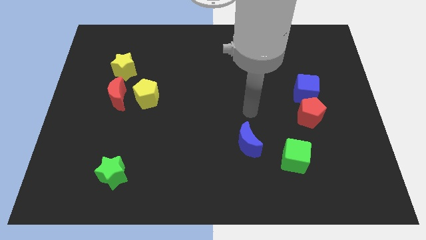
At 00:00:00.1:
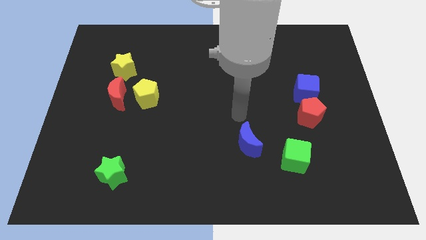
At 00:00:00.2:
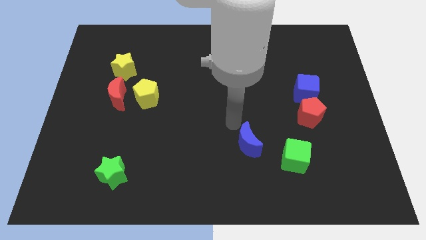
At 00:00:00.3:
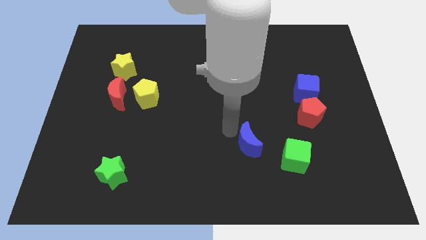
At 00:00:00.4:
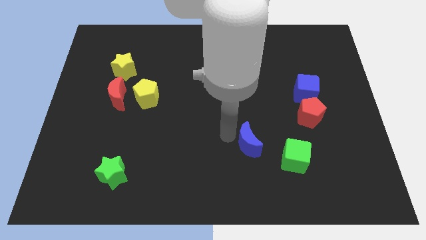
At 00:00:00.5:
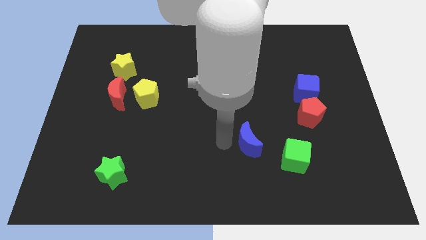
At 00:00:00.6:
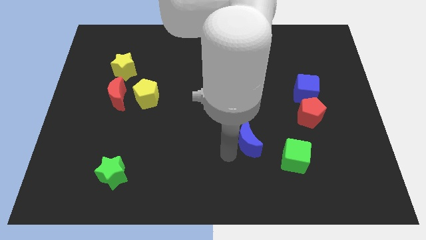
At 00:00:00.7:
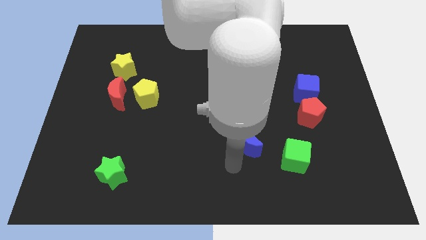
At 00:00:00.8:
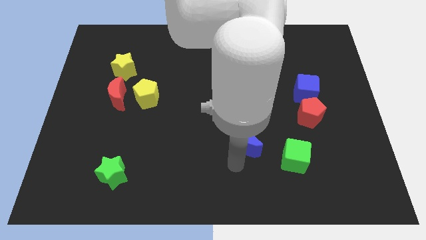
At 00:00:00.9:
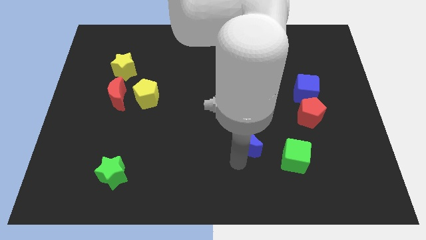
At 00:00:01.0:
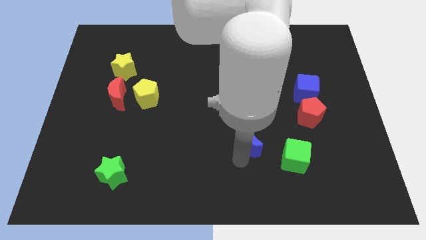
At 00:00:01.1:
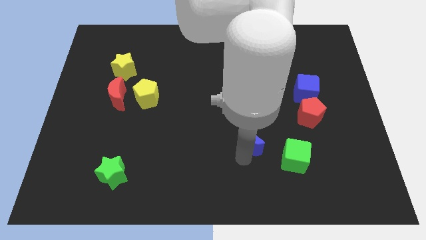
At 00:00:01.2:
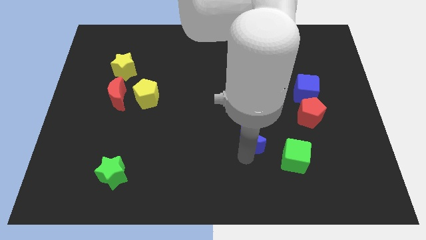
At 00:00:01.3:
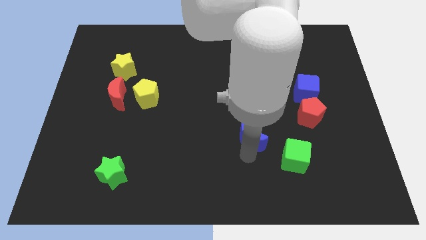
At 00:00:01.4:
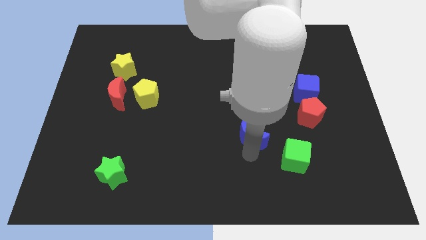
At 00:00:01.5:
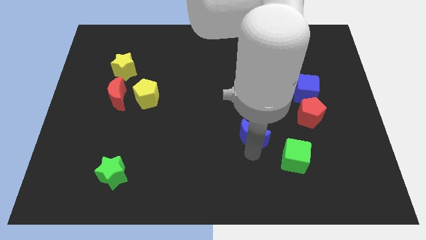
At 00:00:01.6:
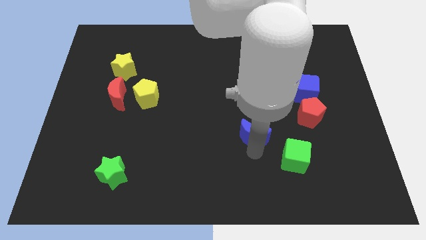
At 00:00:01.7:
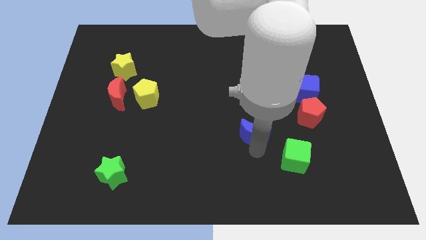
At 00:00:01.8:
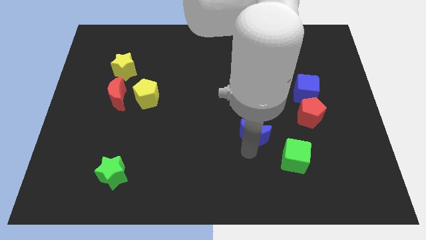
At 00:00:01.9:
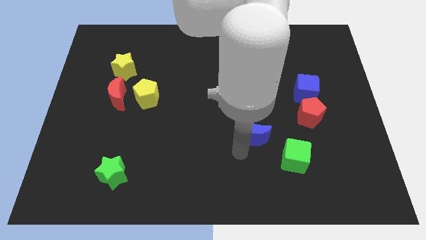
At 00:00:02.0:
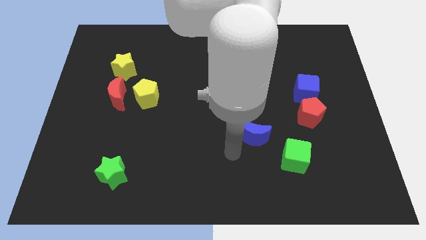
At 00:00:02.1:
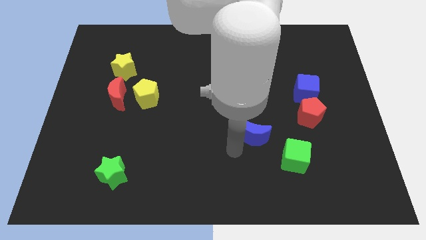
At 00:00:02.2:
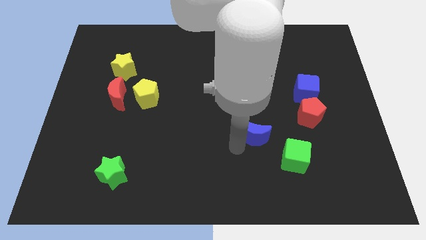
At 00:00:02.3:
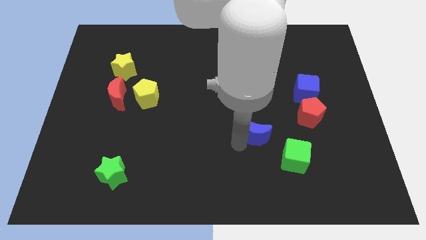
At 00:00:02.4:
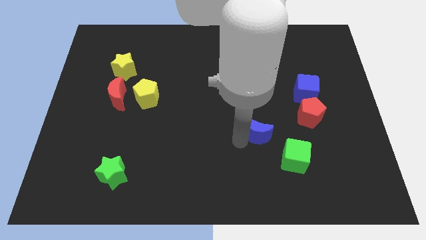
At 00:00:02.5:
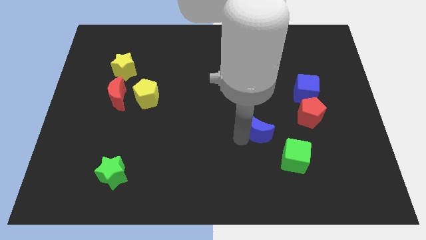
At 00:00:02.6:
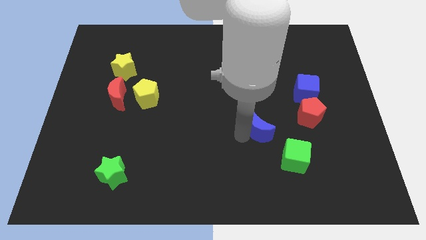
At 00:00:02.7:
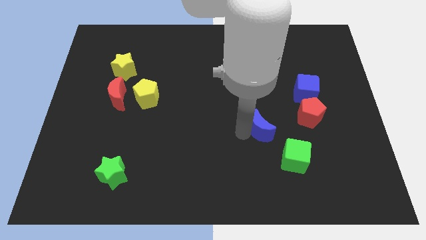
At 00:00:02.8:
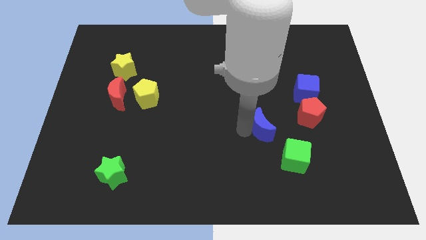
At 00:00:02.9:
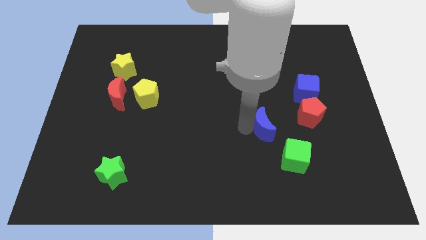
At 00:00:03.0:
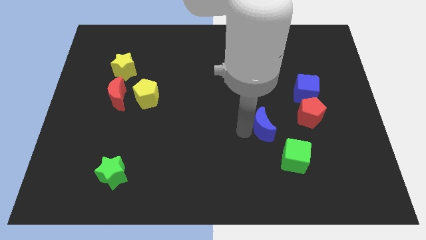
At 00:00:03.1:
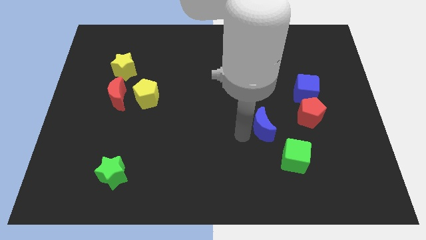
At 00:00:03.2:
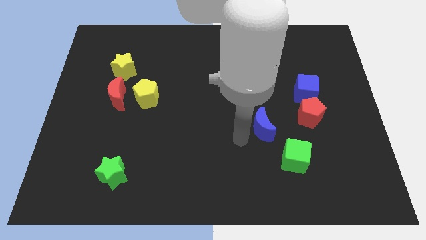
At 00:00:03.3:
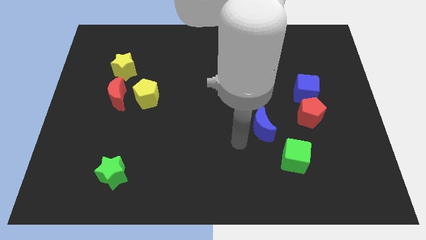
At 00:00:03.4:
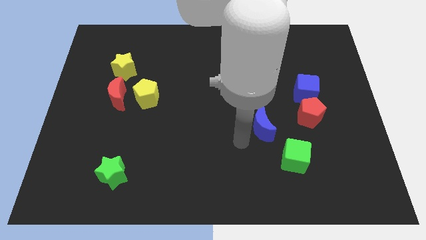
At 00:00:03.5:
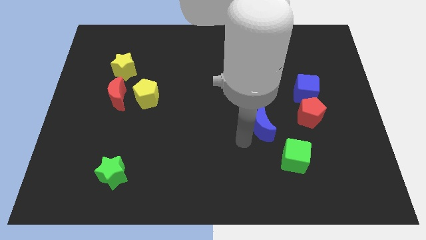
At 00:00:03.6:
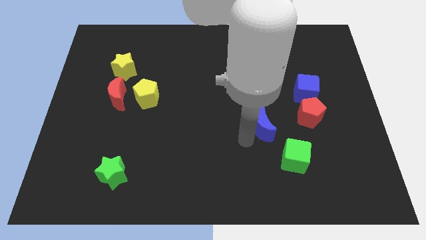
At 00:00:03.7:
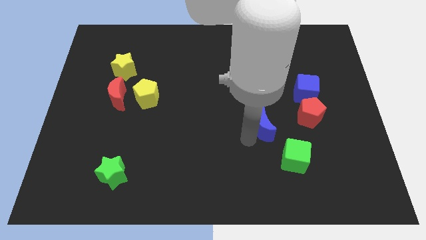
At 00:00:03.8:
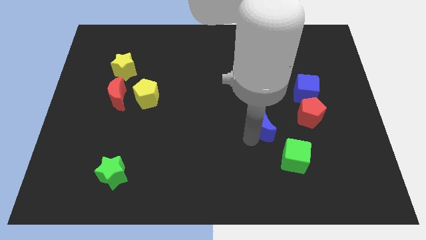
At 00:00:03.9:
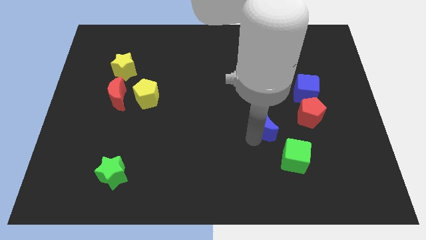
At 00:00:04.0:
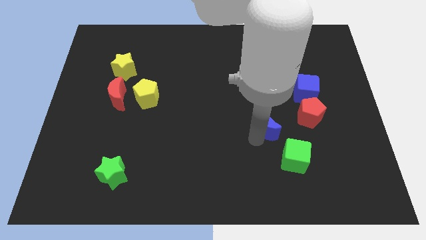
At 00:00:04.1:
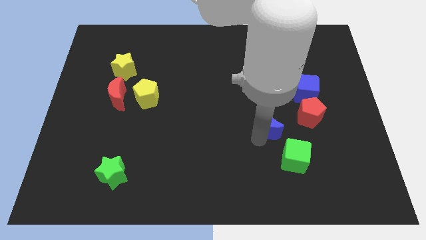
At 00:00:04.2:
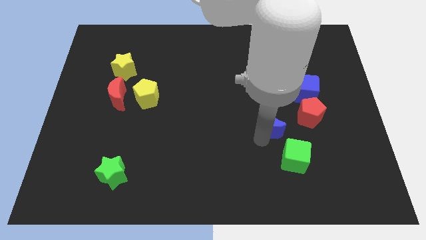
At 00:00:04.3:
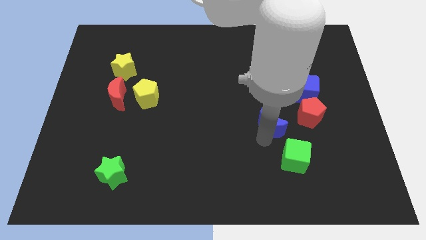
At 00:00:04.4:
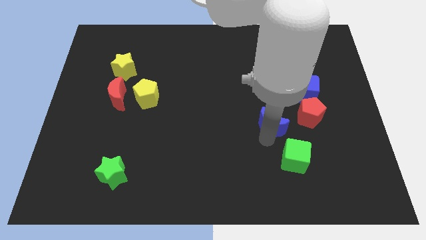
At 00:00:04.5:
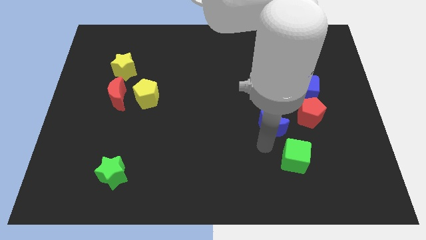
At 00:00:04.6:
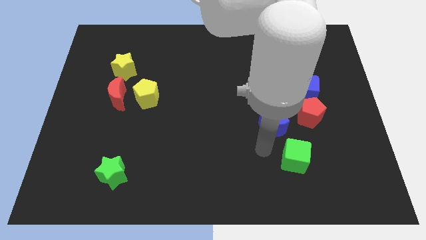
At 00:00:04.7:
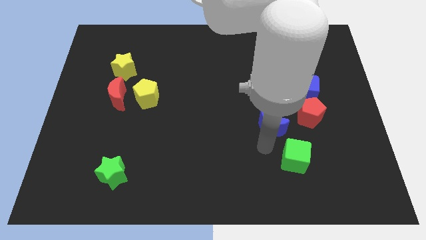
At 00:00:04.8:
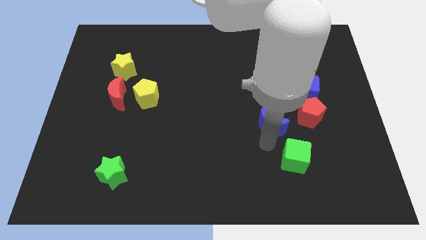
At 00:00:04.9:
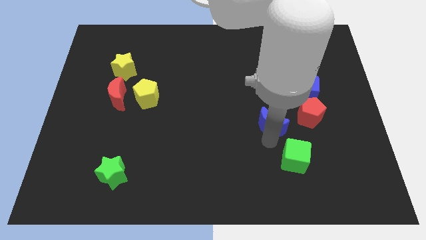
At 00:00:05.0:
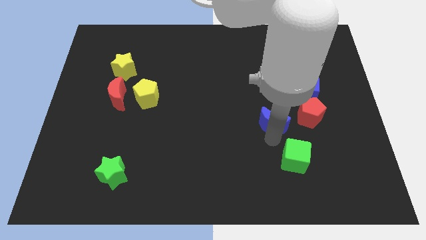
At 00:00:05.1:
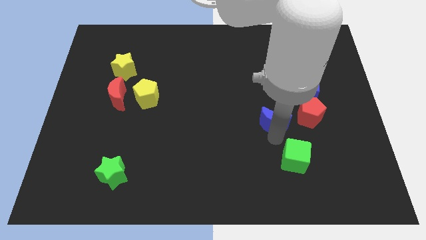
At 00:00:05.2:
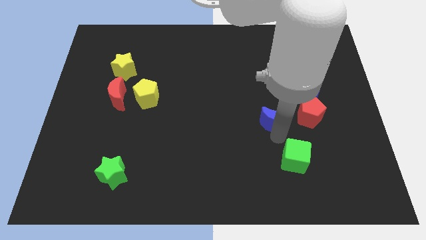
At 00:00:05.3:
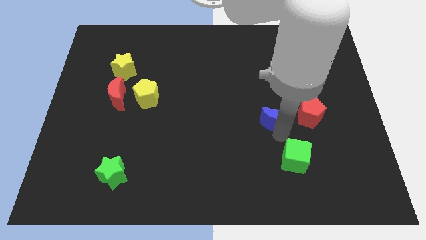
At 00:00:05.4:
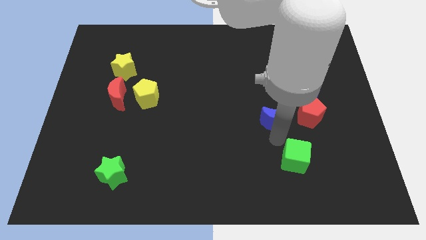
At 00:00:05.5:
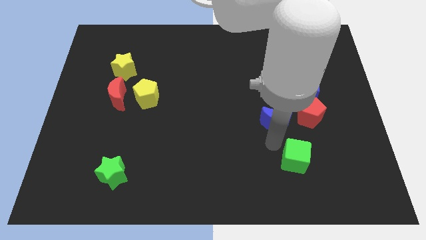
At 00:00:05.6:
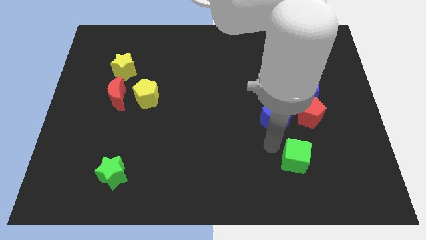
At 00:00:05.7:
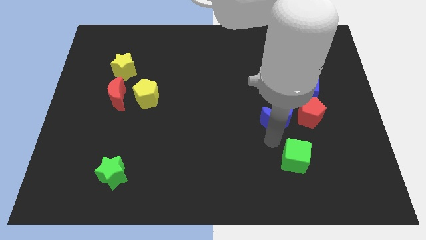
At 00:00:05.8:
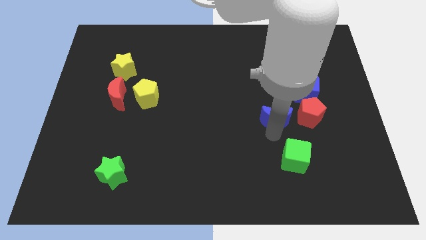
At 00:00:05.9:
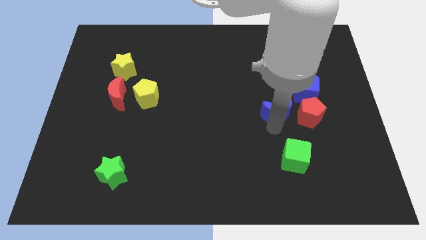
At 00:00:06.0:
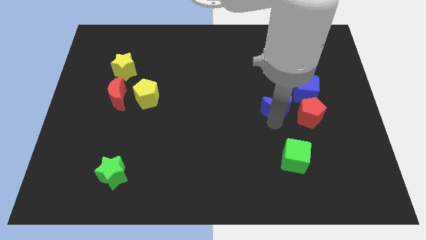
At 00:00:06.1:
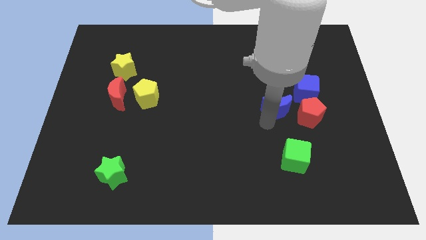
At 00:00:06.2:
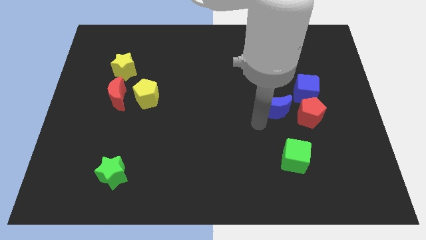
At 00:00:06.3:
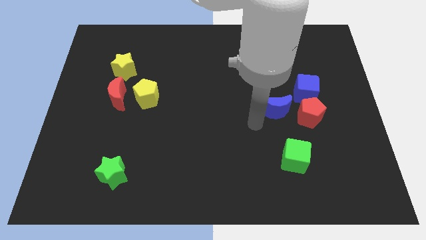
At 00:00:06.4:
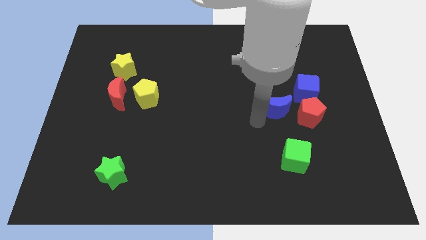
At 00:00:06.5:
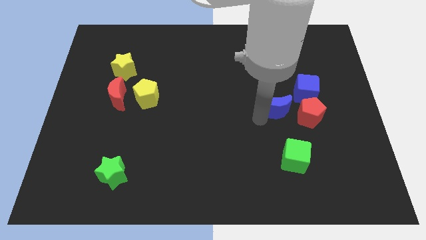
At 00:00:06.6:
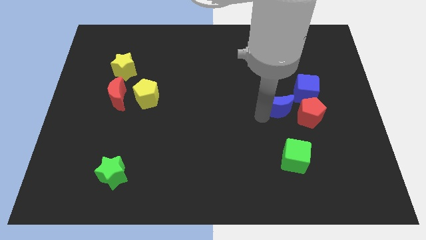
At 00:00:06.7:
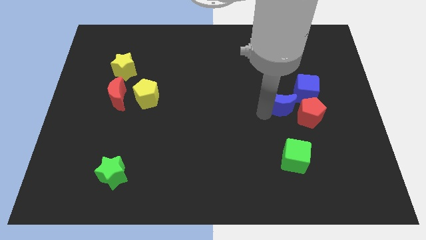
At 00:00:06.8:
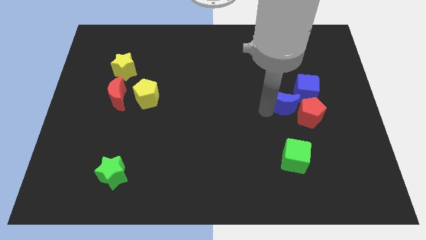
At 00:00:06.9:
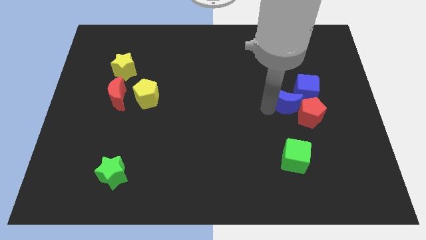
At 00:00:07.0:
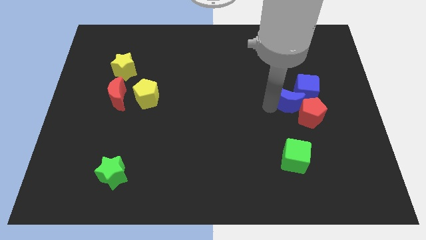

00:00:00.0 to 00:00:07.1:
slide the blue moon to the blue cube

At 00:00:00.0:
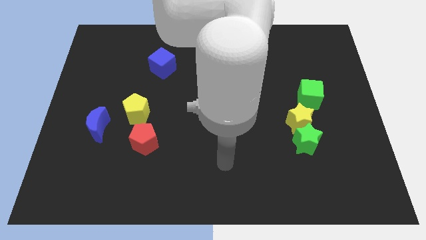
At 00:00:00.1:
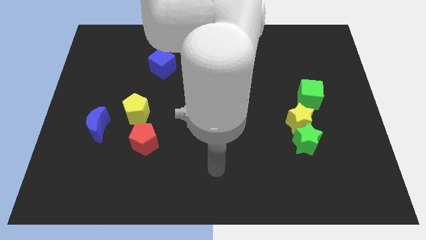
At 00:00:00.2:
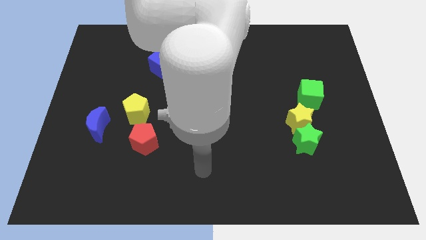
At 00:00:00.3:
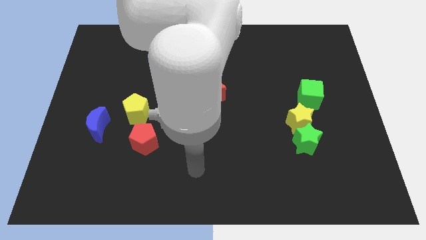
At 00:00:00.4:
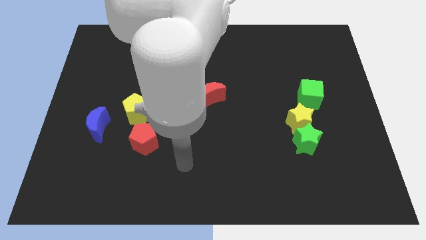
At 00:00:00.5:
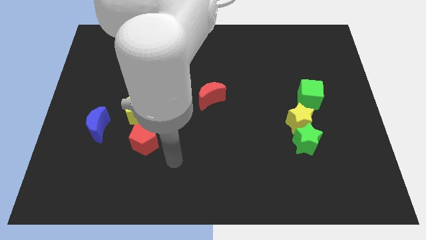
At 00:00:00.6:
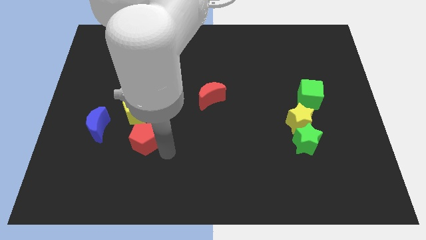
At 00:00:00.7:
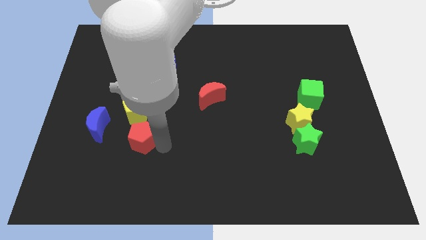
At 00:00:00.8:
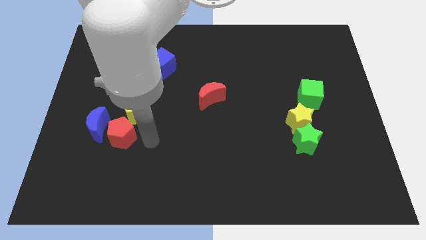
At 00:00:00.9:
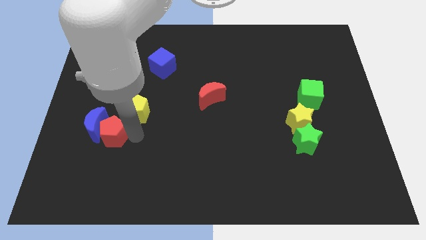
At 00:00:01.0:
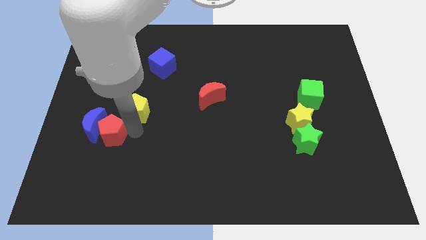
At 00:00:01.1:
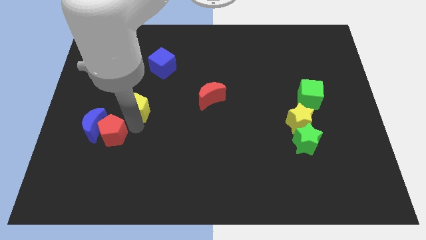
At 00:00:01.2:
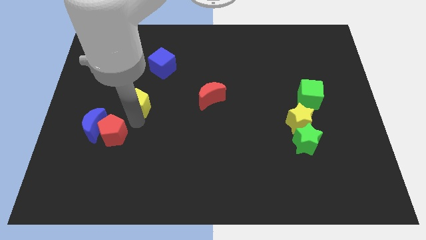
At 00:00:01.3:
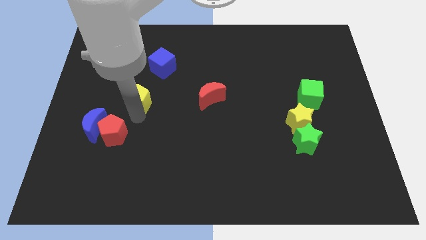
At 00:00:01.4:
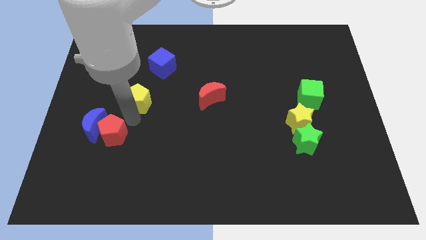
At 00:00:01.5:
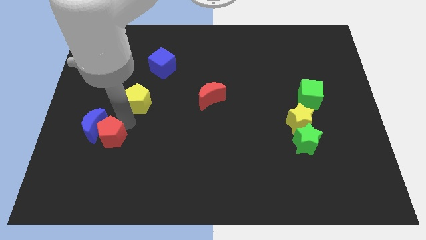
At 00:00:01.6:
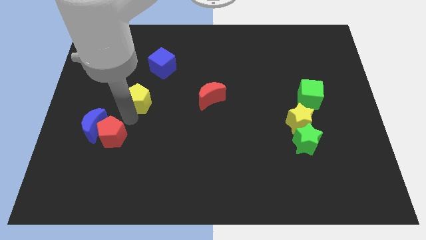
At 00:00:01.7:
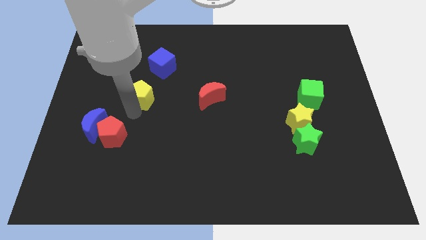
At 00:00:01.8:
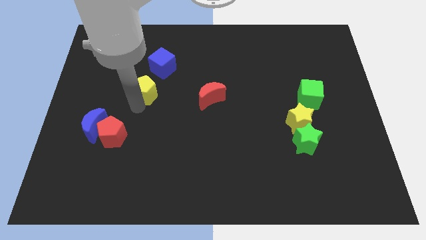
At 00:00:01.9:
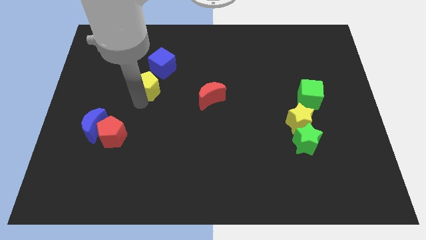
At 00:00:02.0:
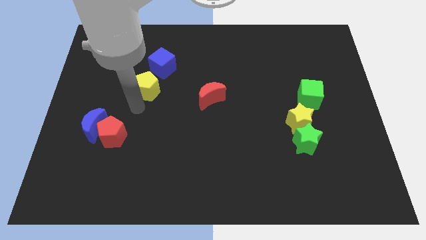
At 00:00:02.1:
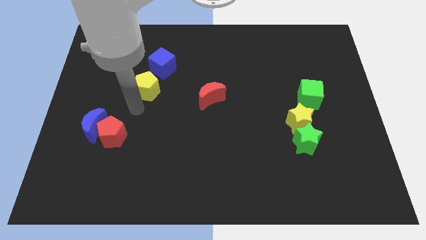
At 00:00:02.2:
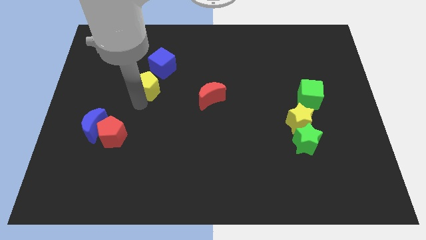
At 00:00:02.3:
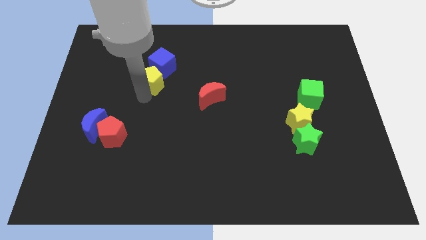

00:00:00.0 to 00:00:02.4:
move the yellow pentagon next to the blue cube
